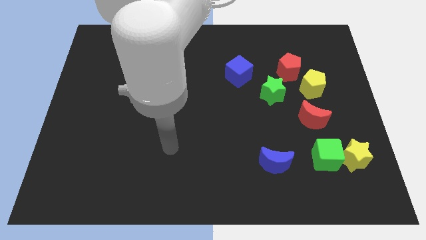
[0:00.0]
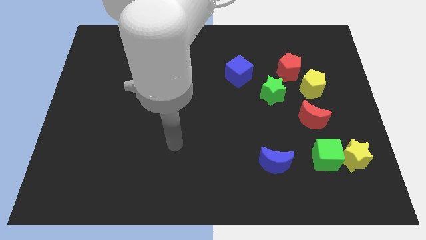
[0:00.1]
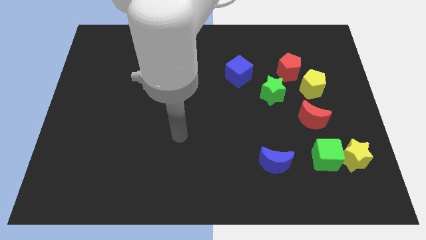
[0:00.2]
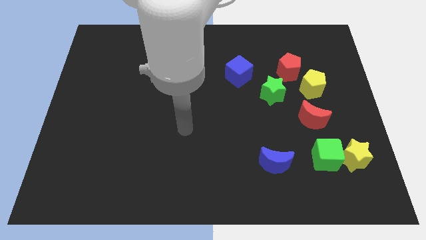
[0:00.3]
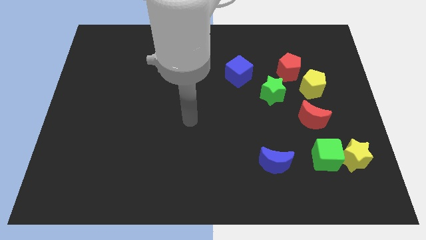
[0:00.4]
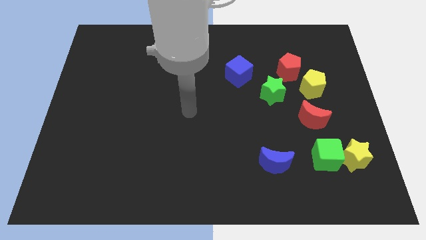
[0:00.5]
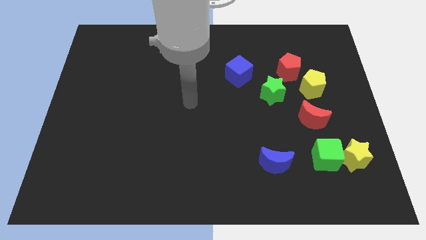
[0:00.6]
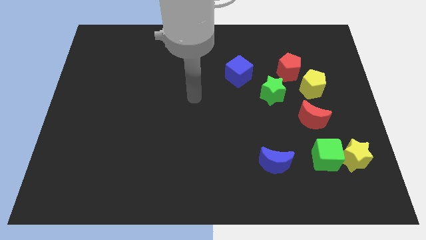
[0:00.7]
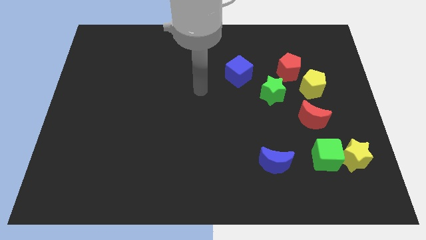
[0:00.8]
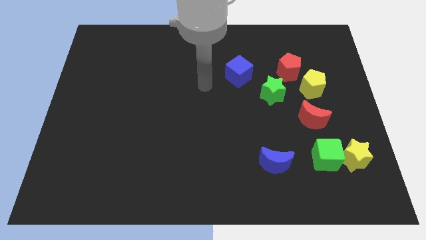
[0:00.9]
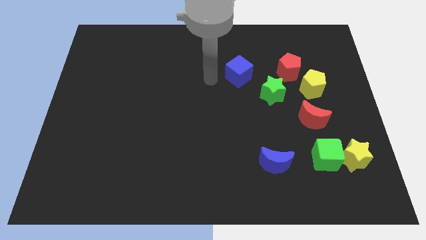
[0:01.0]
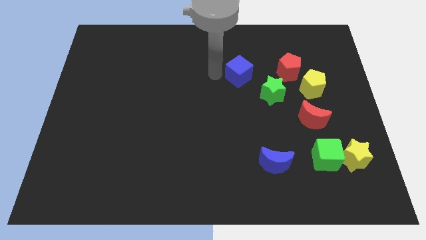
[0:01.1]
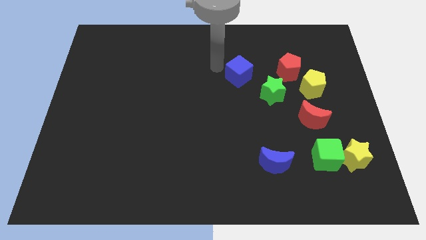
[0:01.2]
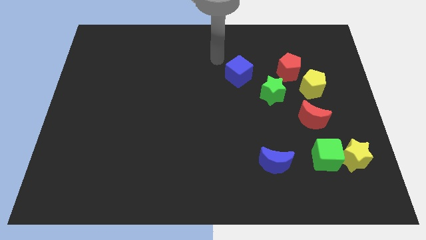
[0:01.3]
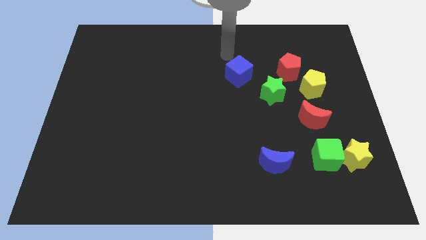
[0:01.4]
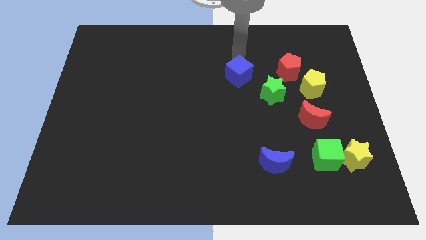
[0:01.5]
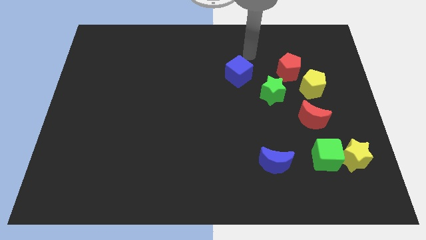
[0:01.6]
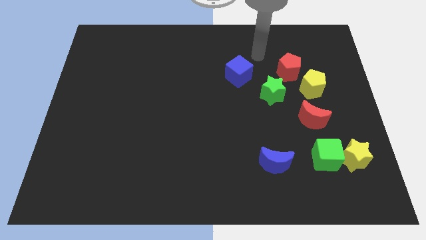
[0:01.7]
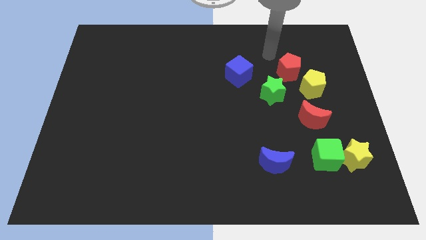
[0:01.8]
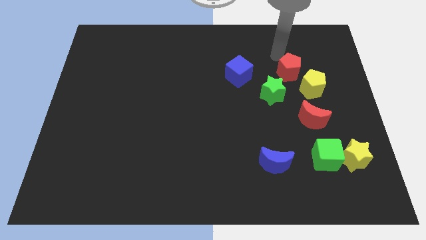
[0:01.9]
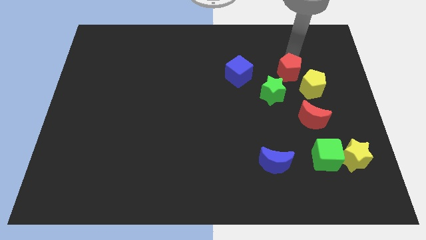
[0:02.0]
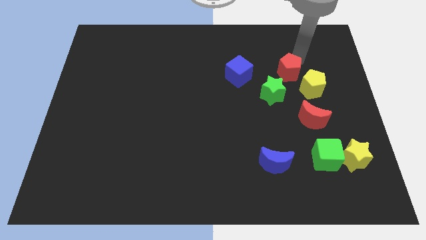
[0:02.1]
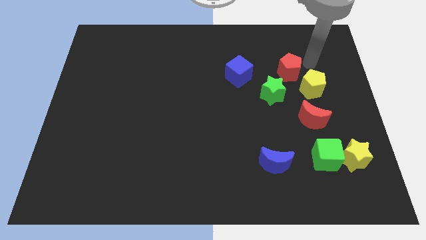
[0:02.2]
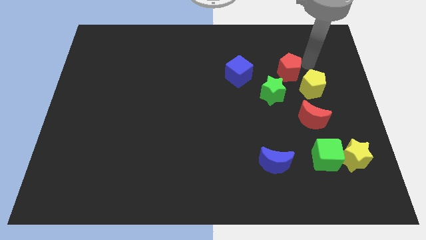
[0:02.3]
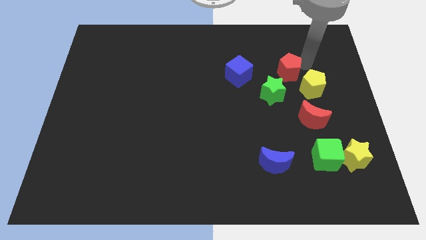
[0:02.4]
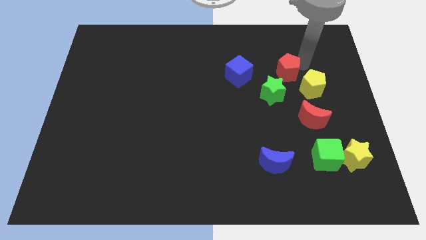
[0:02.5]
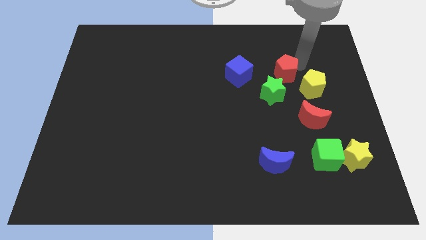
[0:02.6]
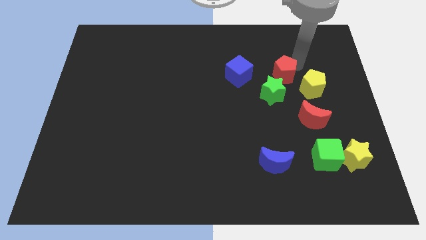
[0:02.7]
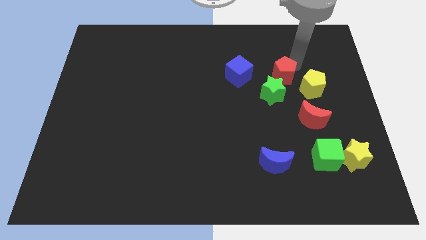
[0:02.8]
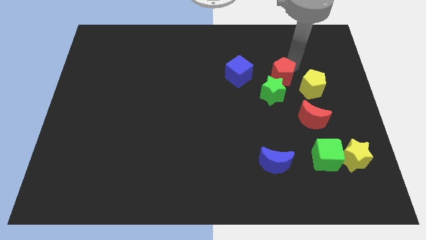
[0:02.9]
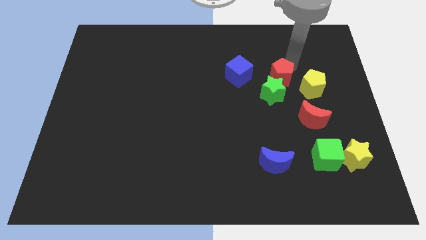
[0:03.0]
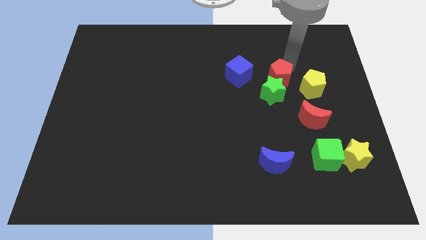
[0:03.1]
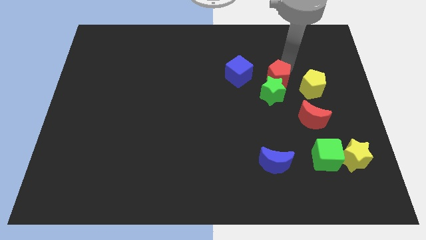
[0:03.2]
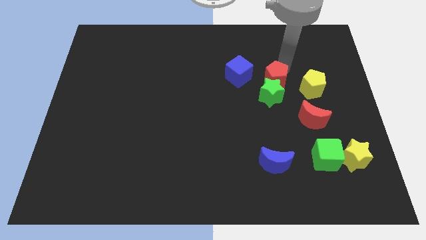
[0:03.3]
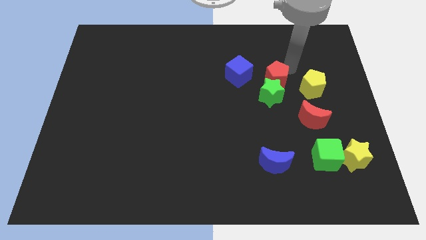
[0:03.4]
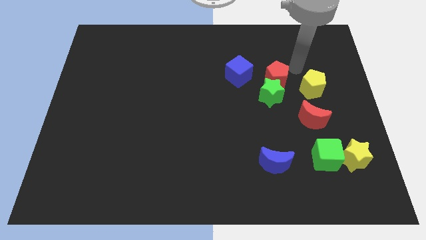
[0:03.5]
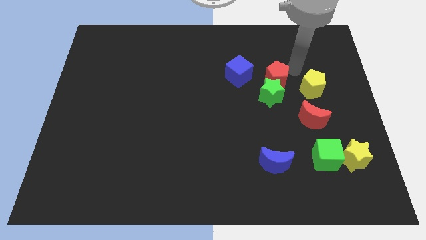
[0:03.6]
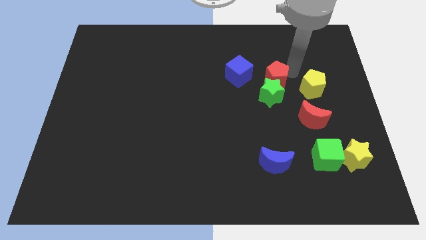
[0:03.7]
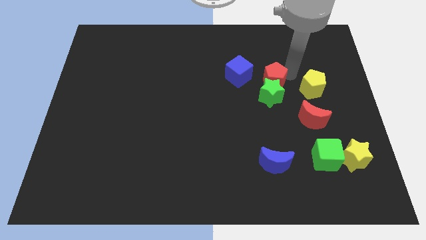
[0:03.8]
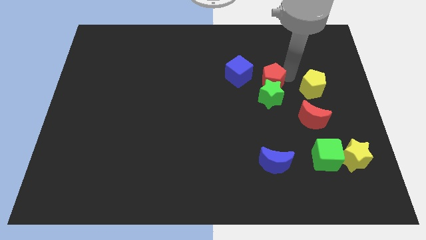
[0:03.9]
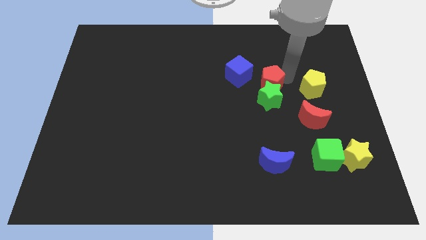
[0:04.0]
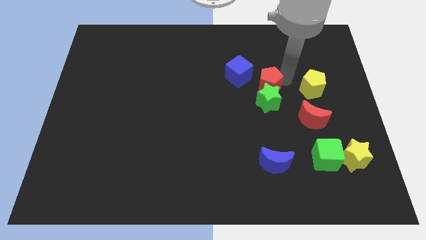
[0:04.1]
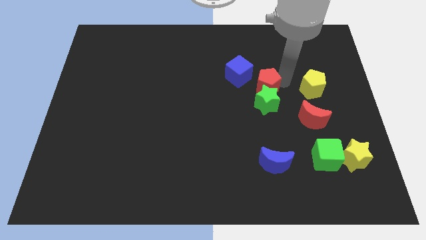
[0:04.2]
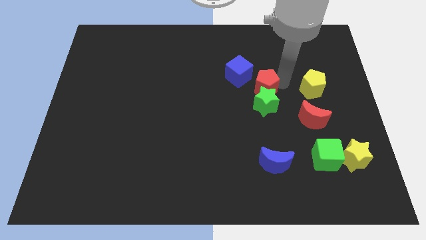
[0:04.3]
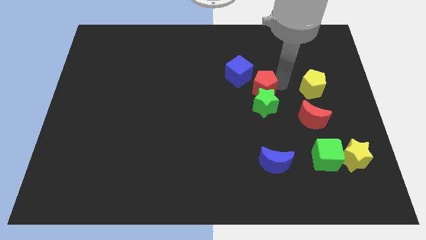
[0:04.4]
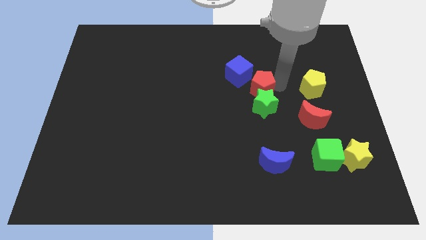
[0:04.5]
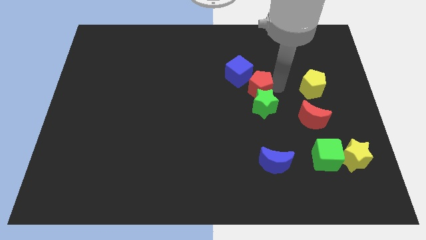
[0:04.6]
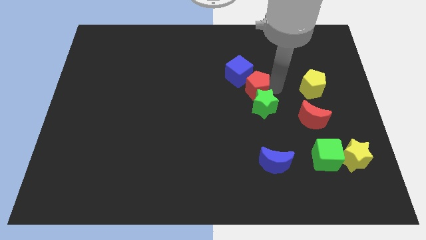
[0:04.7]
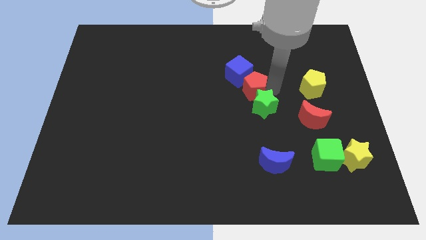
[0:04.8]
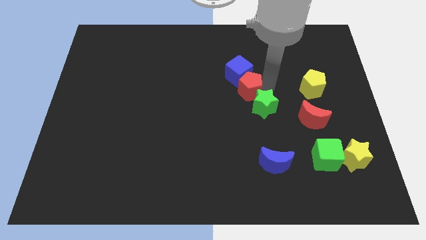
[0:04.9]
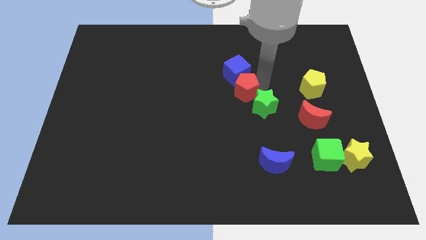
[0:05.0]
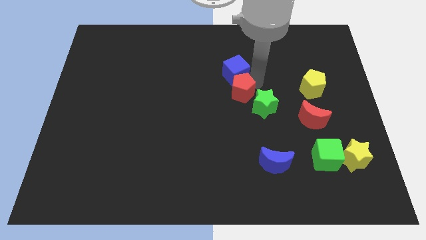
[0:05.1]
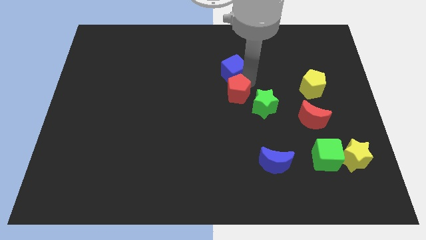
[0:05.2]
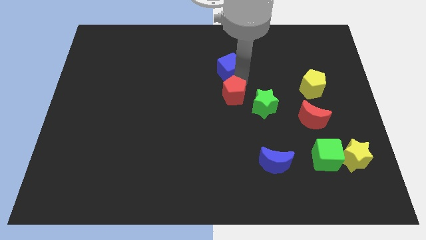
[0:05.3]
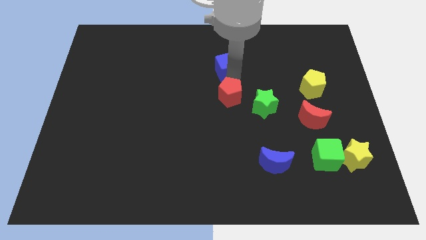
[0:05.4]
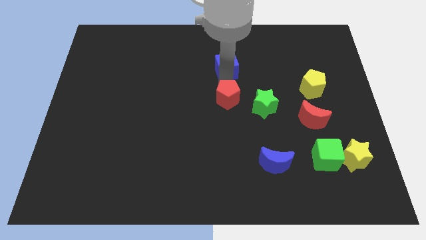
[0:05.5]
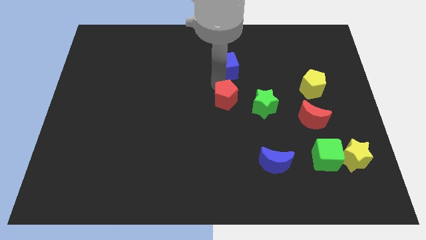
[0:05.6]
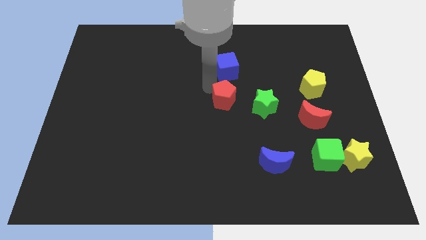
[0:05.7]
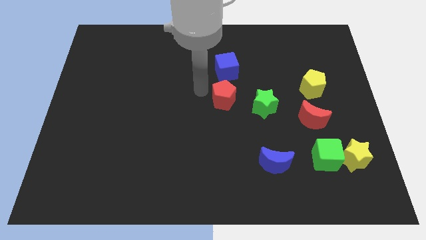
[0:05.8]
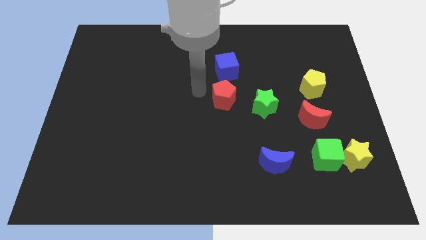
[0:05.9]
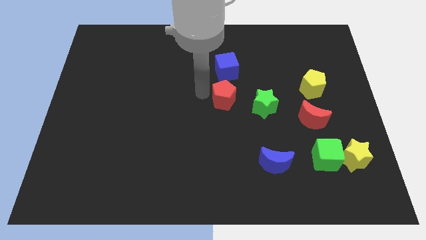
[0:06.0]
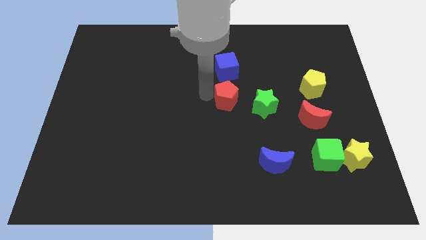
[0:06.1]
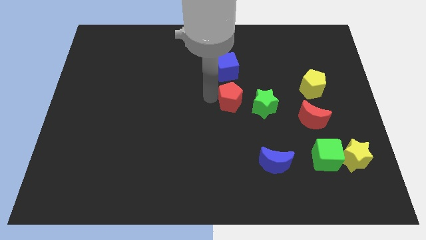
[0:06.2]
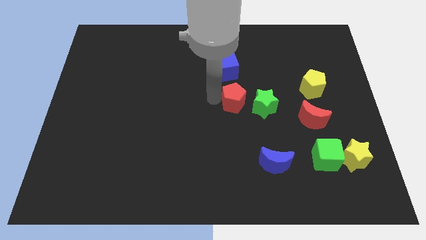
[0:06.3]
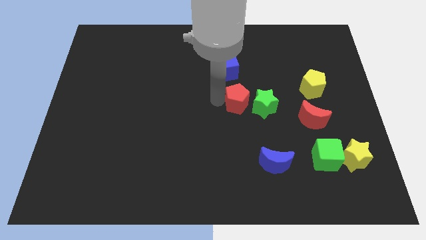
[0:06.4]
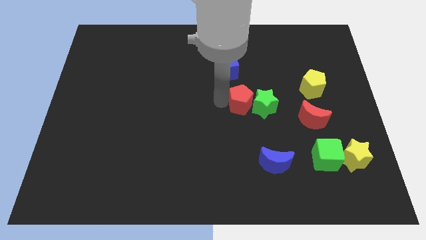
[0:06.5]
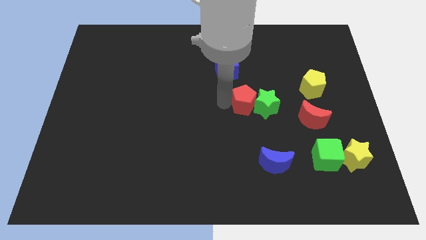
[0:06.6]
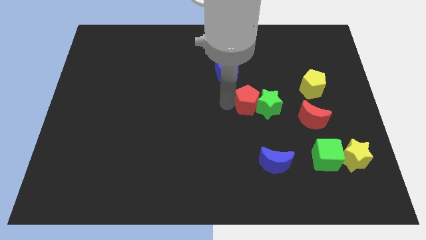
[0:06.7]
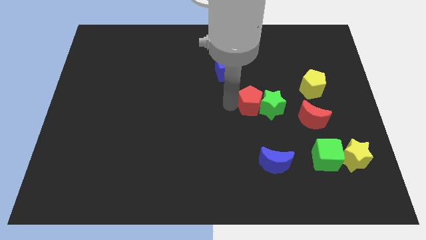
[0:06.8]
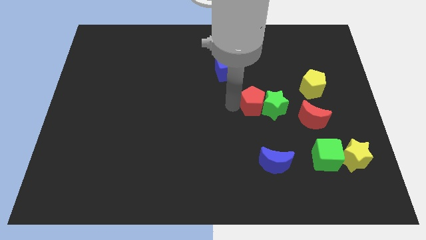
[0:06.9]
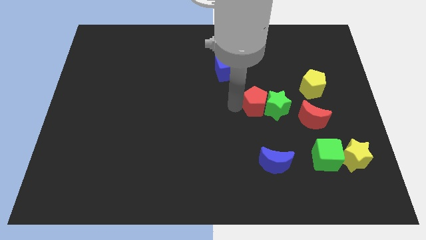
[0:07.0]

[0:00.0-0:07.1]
move the red pentagon a little downwards

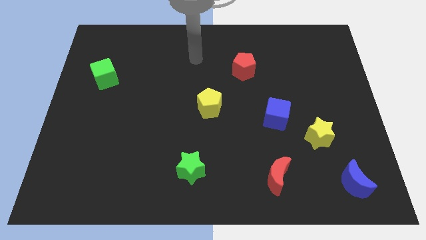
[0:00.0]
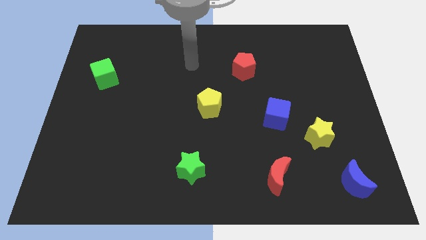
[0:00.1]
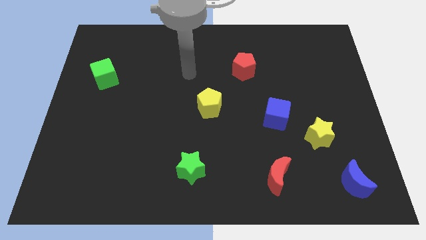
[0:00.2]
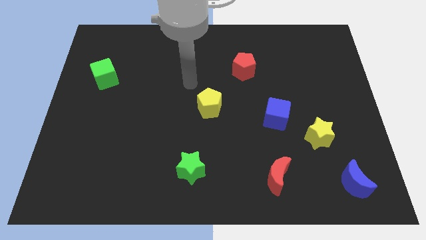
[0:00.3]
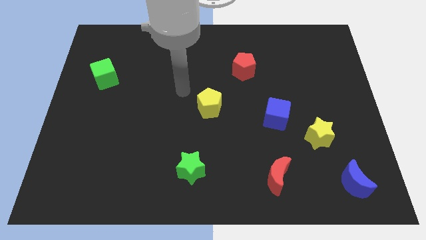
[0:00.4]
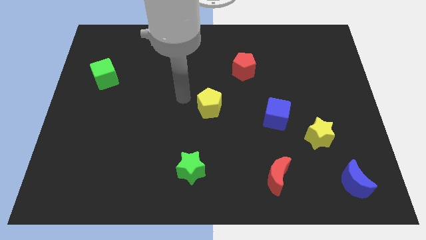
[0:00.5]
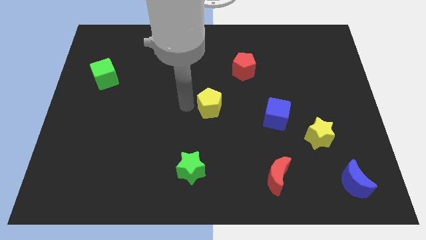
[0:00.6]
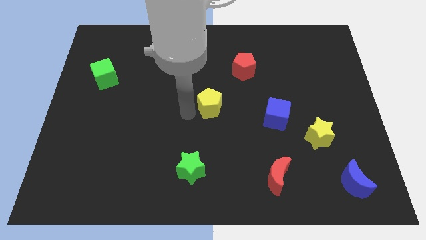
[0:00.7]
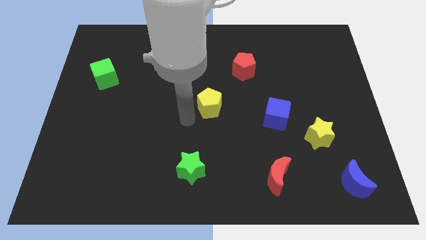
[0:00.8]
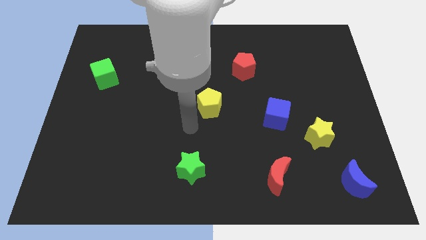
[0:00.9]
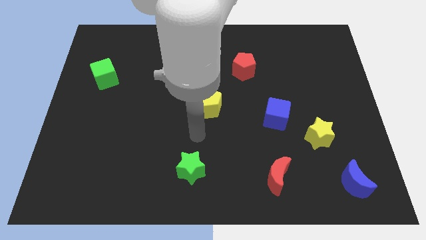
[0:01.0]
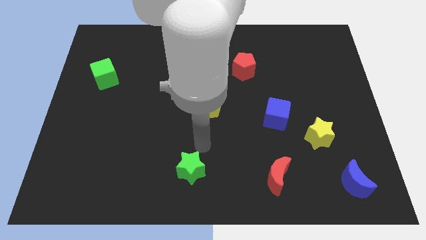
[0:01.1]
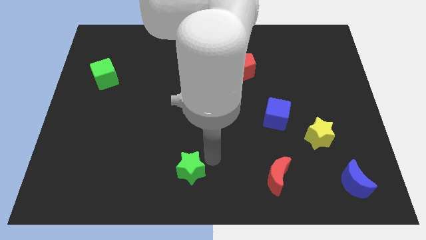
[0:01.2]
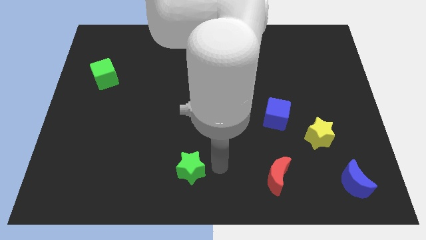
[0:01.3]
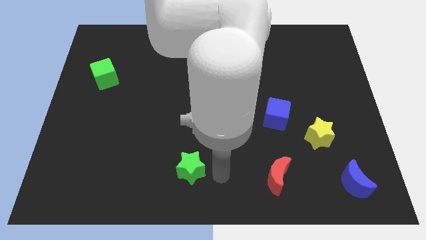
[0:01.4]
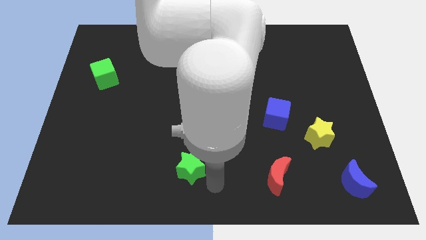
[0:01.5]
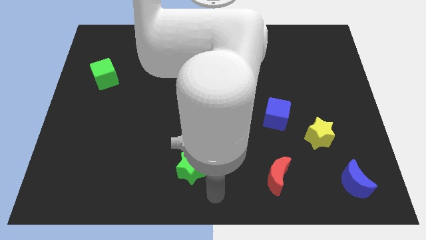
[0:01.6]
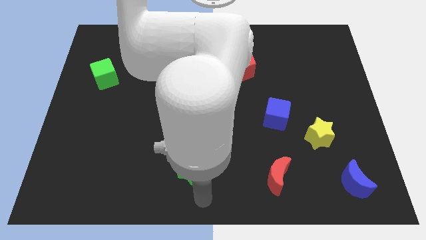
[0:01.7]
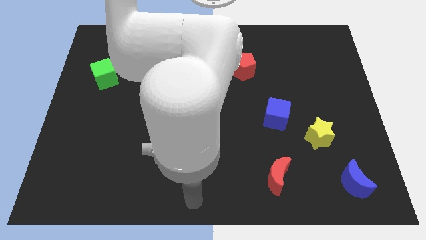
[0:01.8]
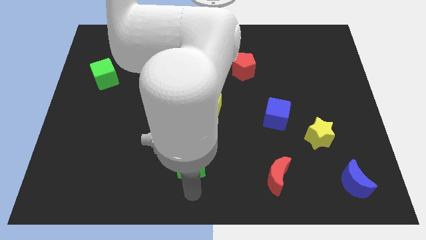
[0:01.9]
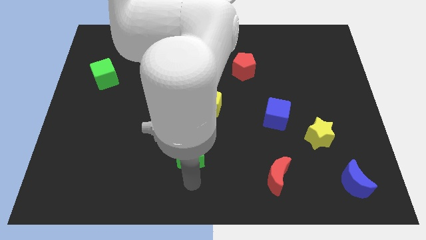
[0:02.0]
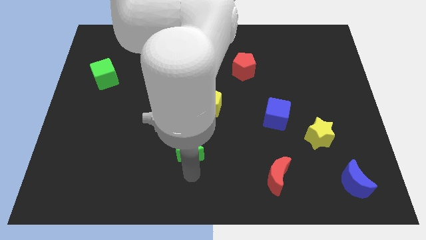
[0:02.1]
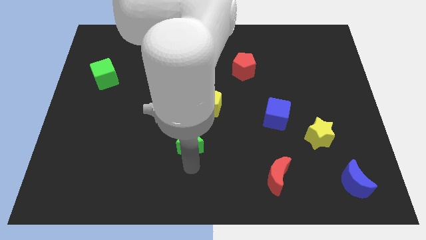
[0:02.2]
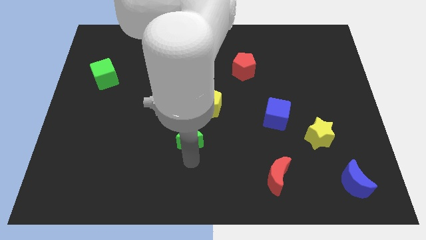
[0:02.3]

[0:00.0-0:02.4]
move the green star up a little bit
